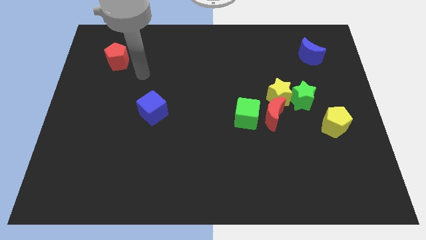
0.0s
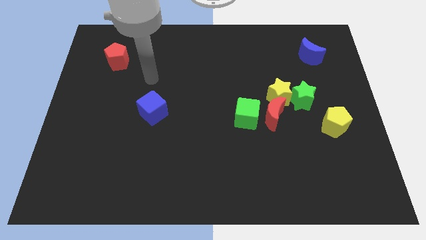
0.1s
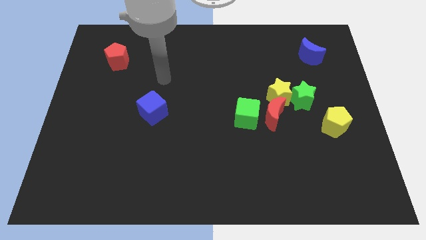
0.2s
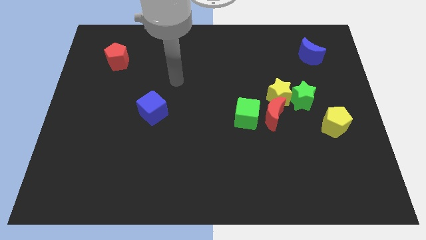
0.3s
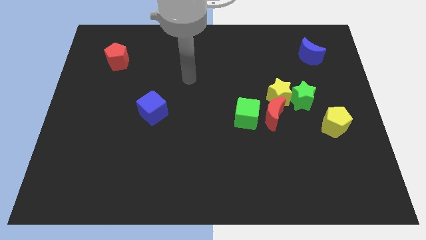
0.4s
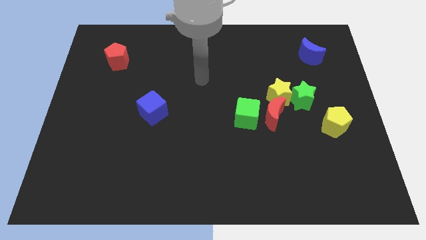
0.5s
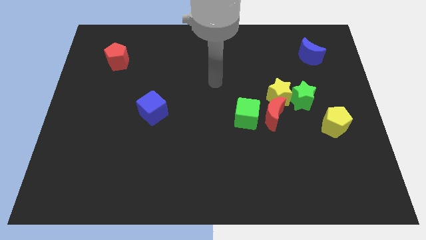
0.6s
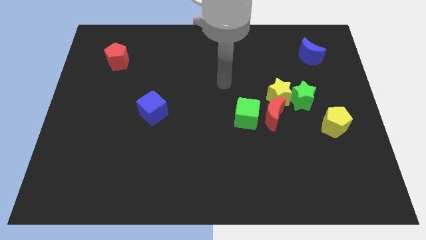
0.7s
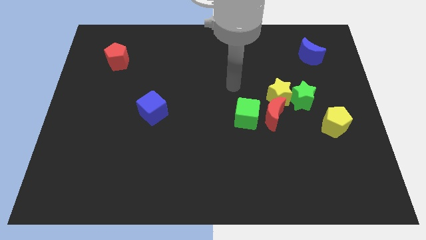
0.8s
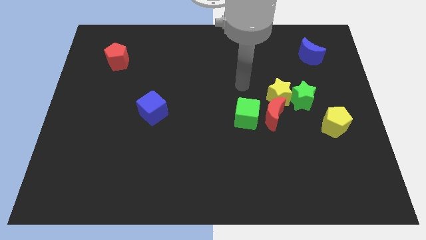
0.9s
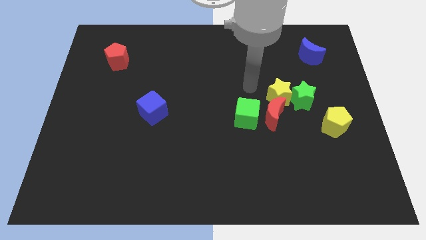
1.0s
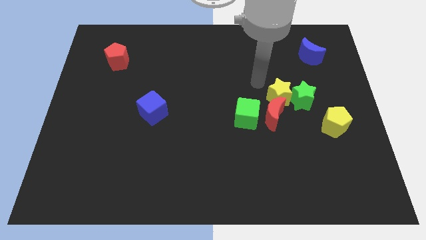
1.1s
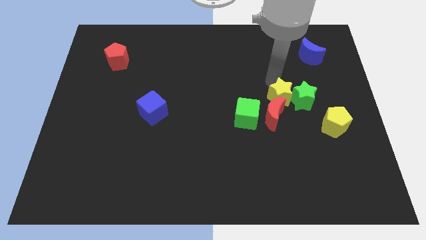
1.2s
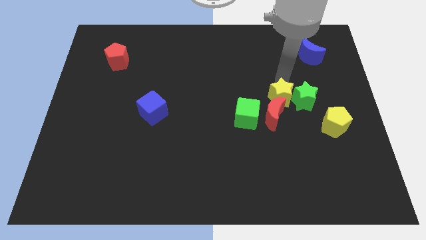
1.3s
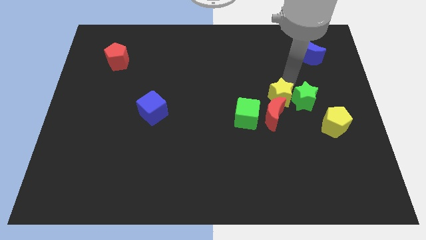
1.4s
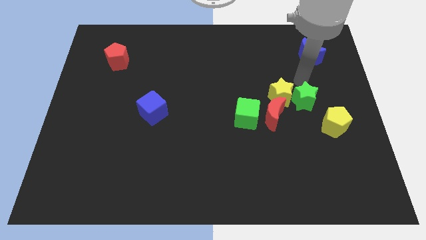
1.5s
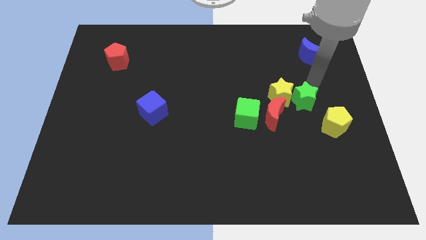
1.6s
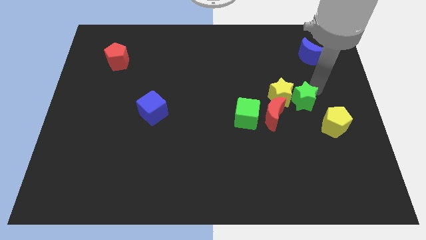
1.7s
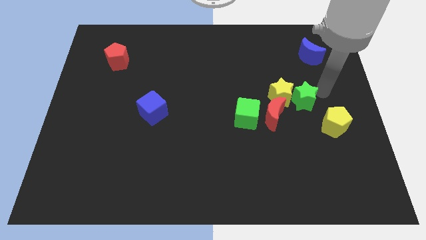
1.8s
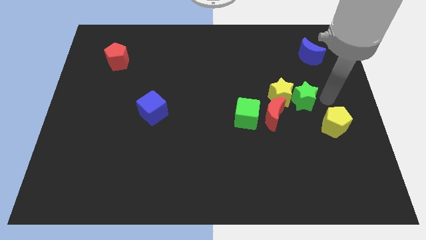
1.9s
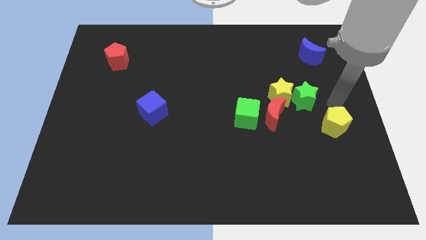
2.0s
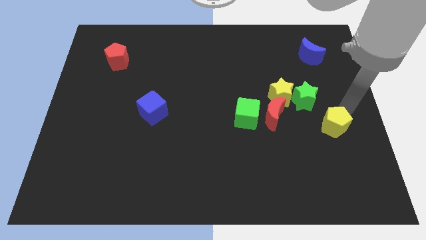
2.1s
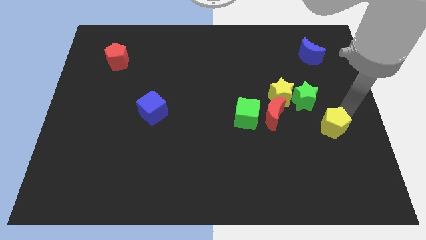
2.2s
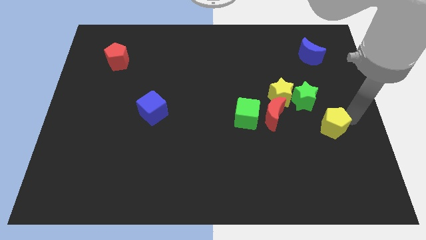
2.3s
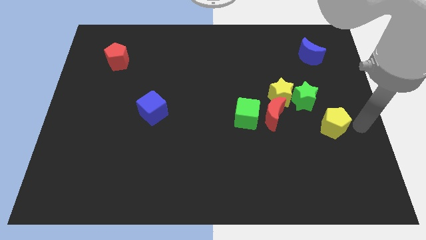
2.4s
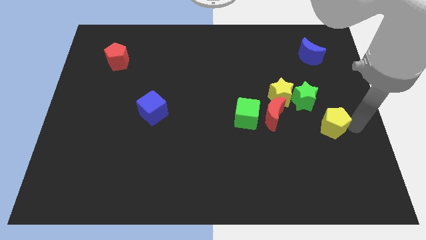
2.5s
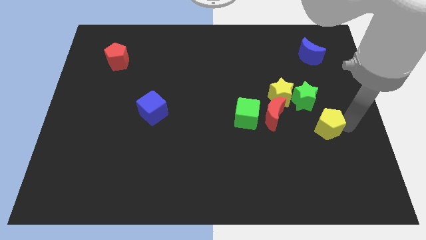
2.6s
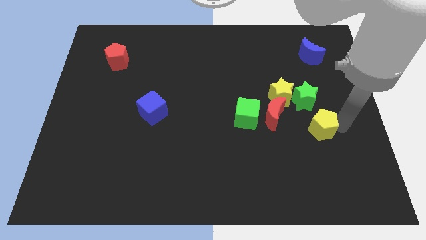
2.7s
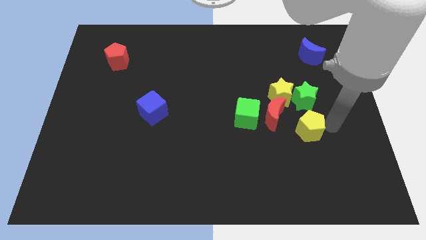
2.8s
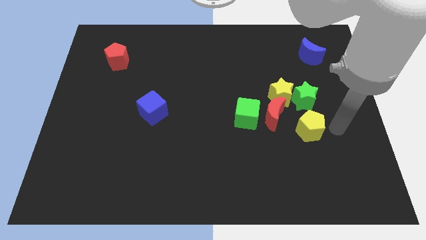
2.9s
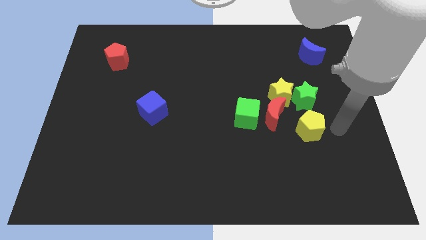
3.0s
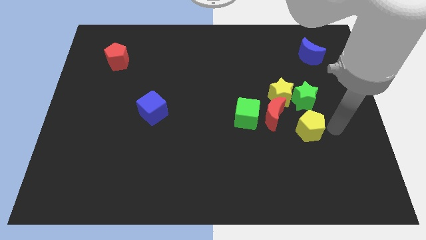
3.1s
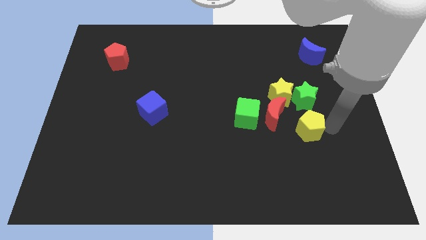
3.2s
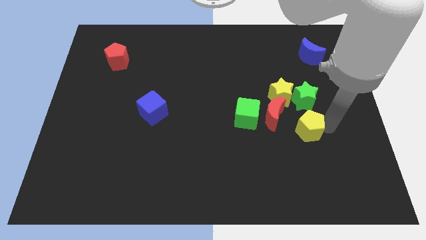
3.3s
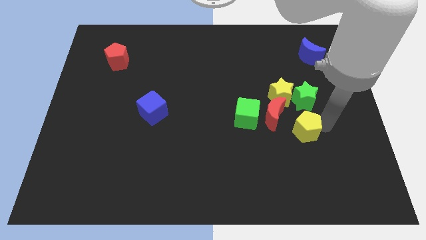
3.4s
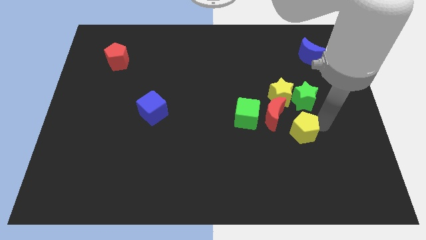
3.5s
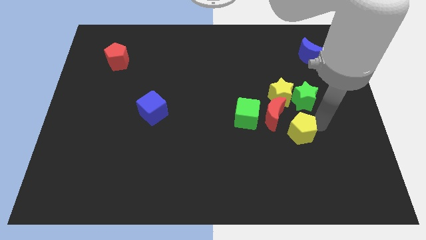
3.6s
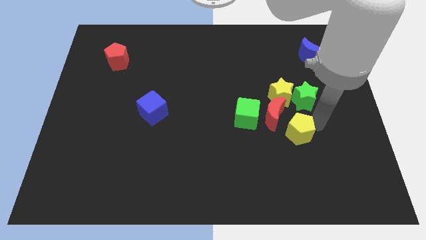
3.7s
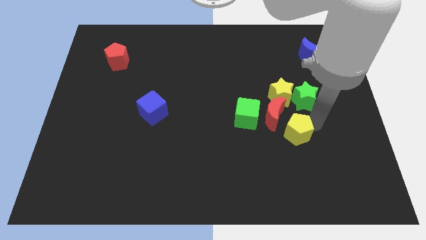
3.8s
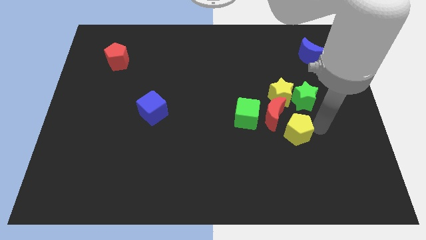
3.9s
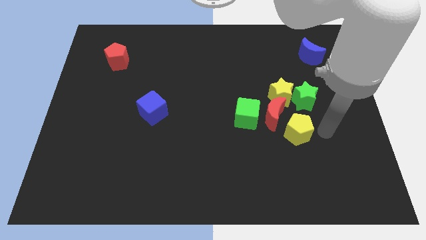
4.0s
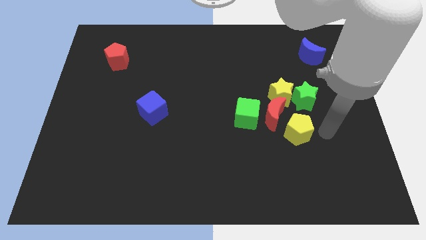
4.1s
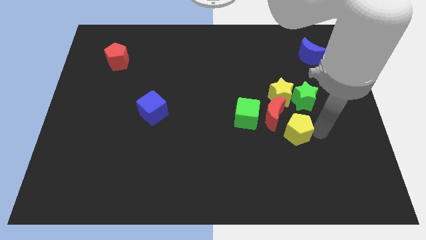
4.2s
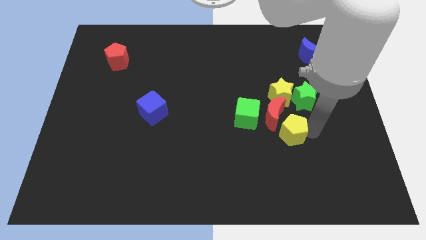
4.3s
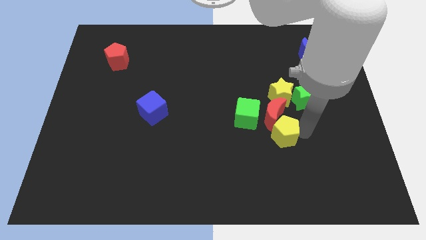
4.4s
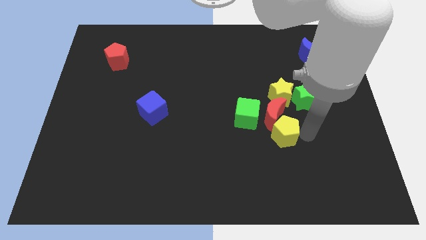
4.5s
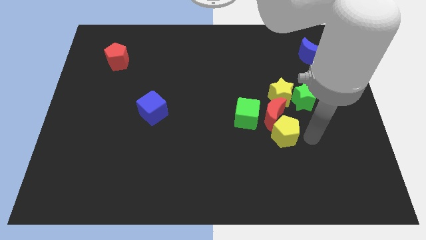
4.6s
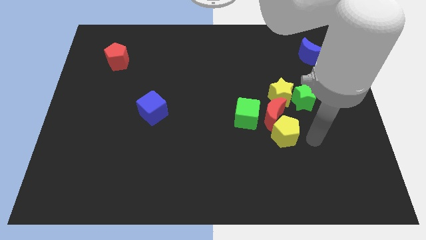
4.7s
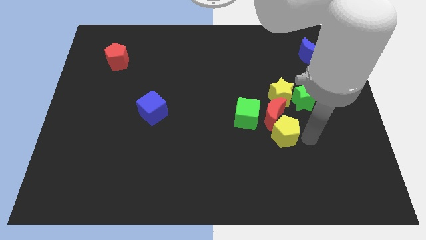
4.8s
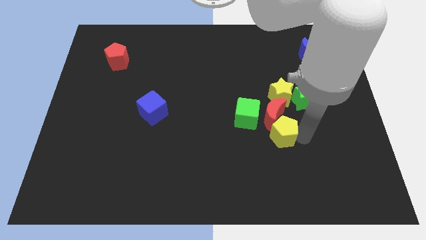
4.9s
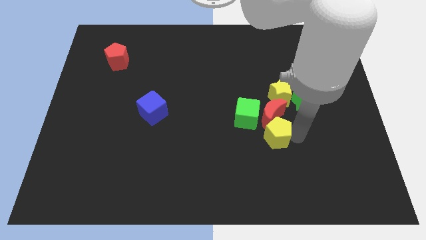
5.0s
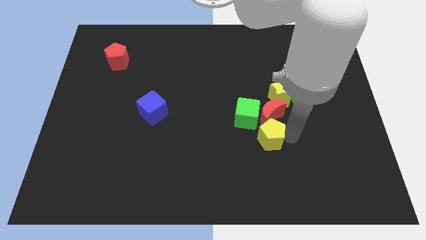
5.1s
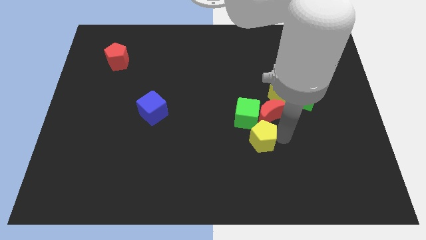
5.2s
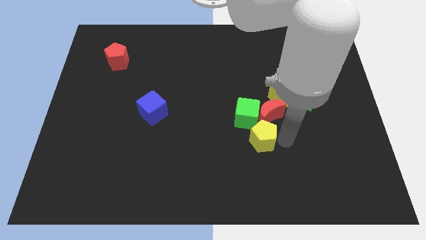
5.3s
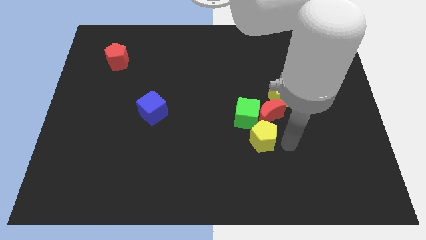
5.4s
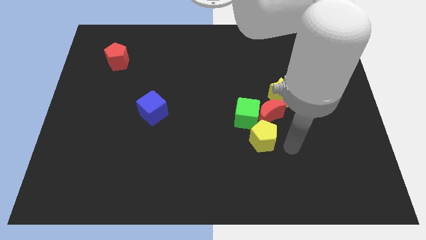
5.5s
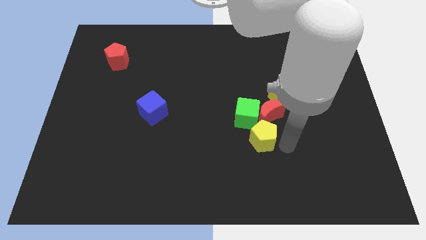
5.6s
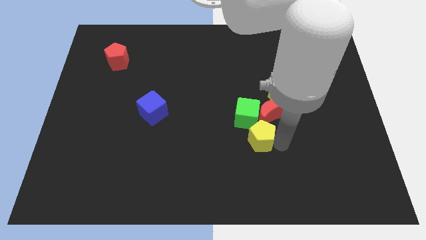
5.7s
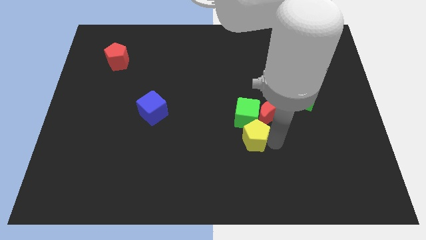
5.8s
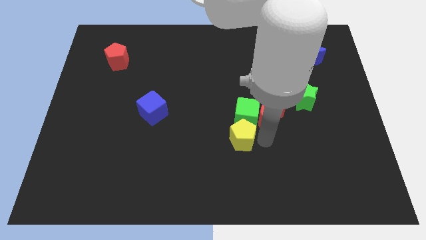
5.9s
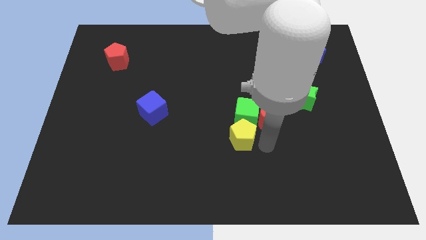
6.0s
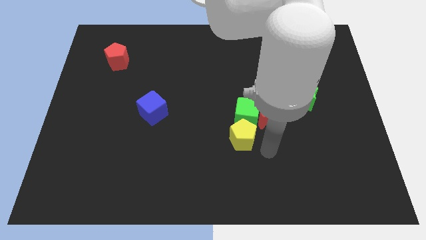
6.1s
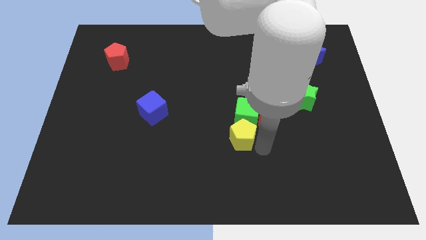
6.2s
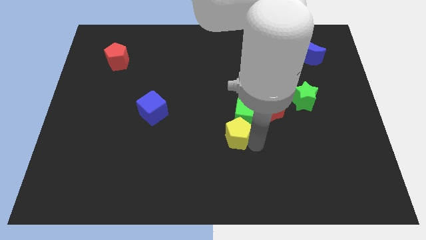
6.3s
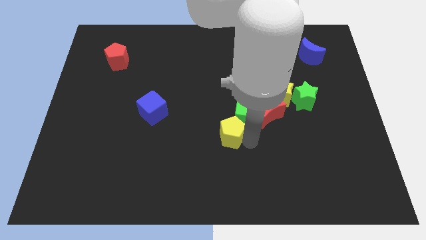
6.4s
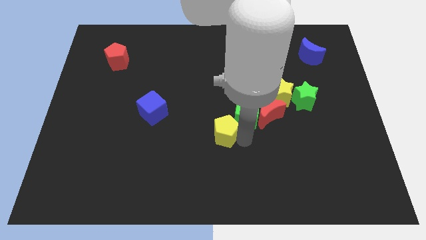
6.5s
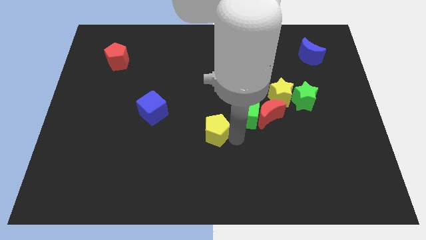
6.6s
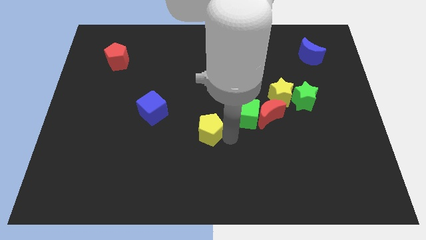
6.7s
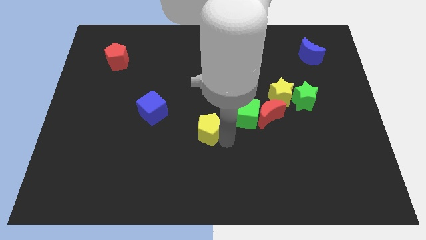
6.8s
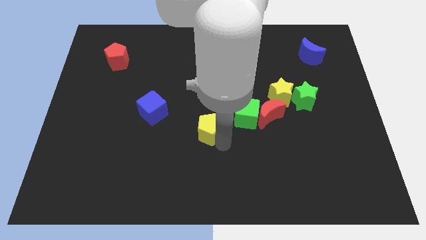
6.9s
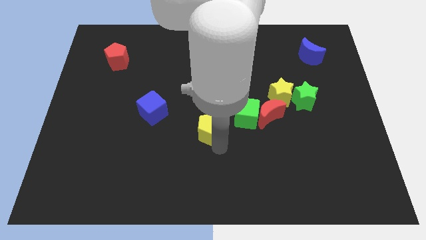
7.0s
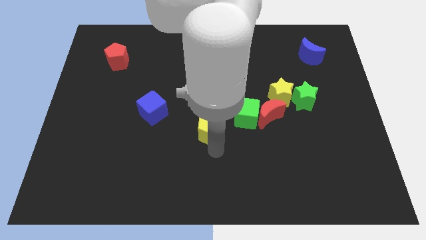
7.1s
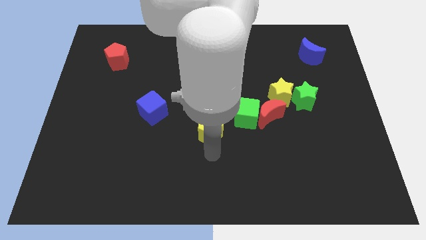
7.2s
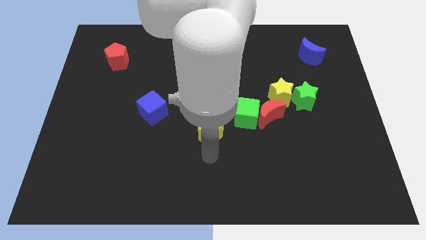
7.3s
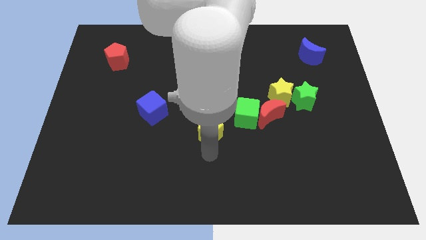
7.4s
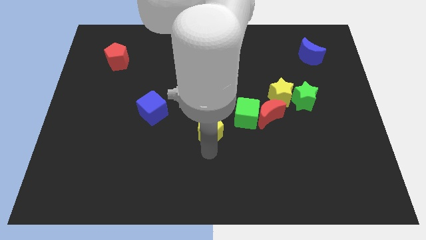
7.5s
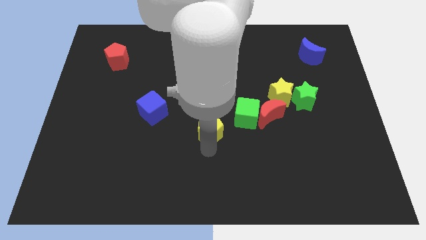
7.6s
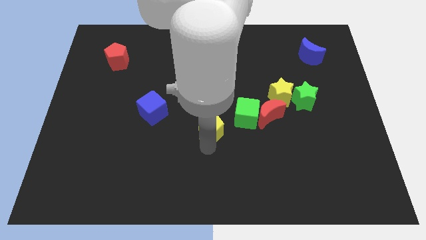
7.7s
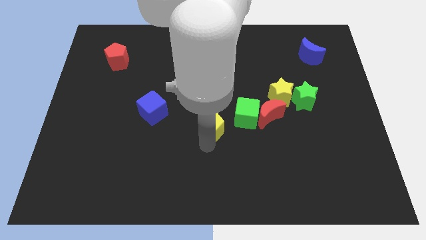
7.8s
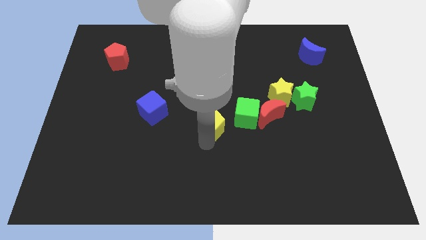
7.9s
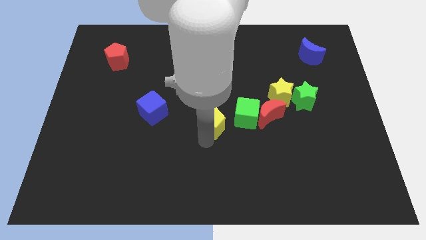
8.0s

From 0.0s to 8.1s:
push the yellow pentagon right of the blue cube
